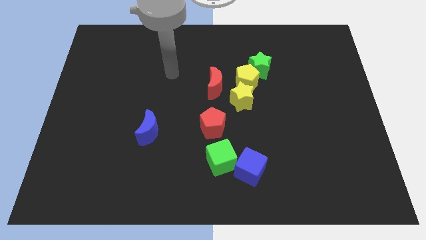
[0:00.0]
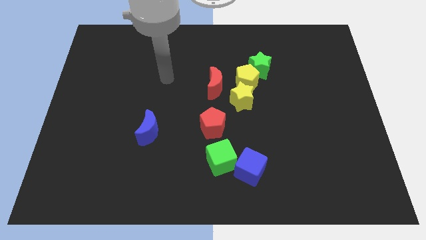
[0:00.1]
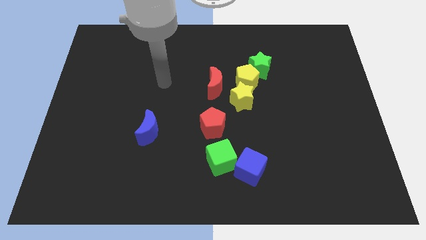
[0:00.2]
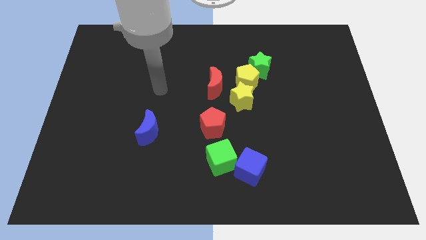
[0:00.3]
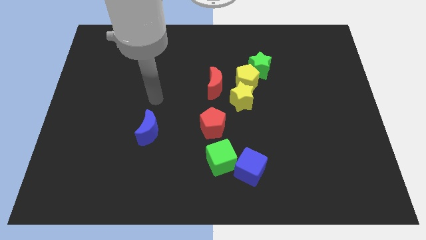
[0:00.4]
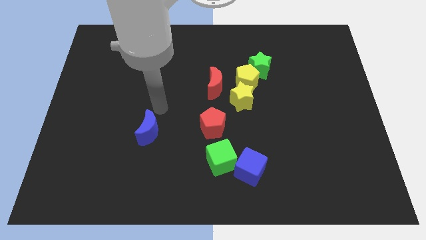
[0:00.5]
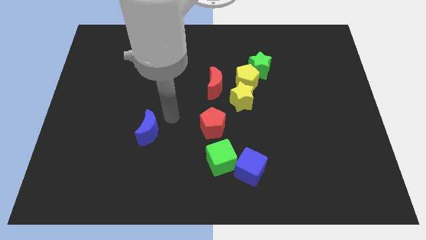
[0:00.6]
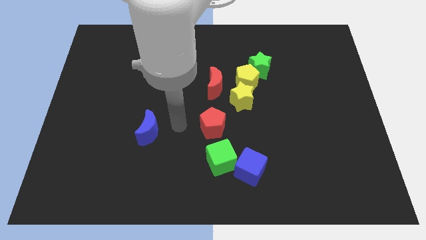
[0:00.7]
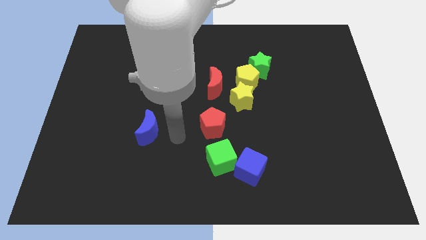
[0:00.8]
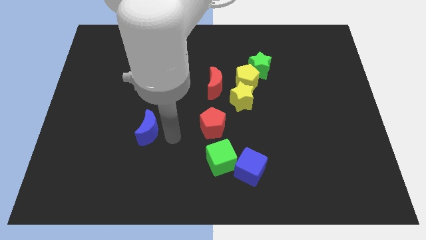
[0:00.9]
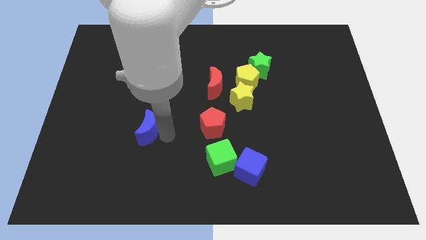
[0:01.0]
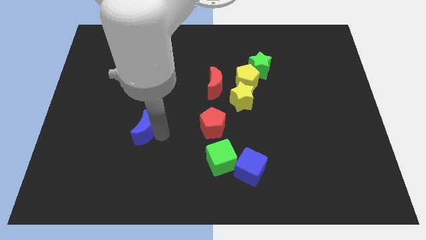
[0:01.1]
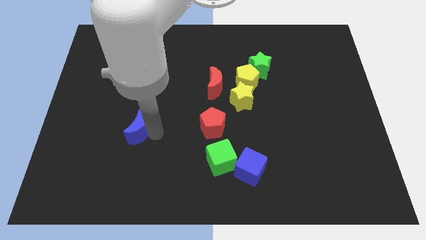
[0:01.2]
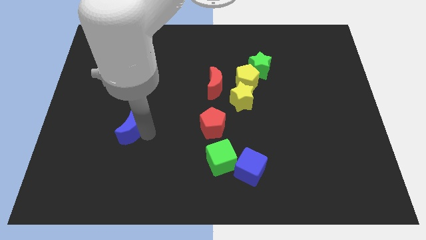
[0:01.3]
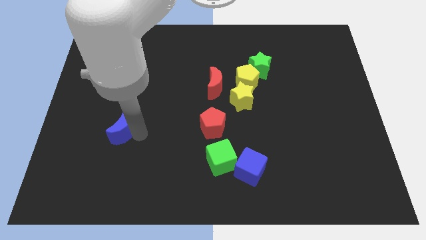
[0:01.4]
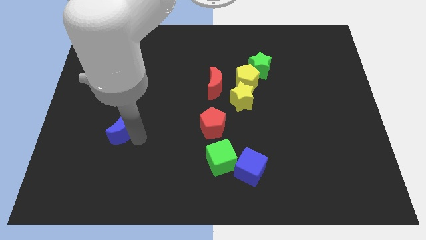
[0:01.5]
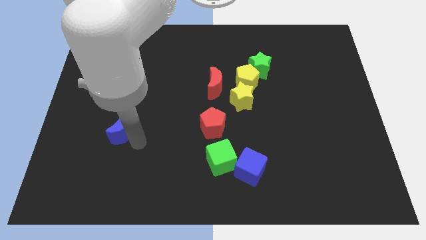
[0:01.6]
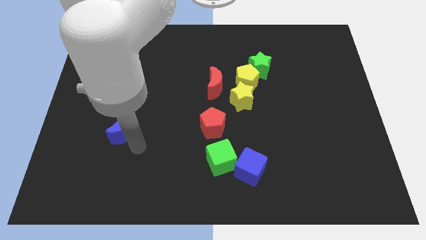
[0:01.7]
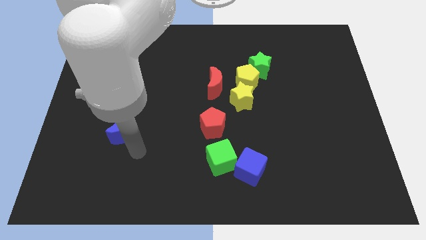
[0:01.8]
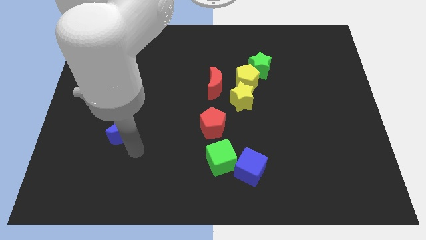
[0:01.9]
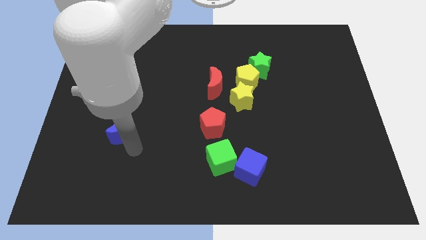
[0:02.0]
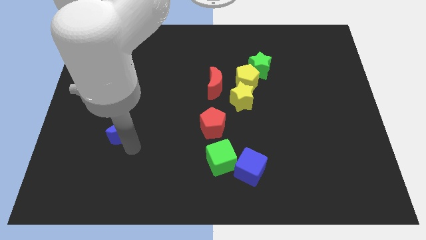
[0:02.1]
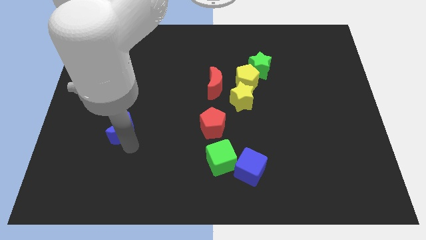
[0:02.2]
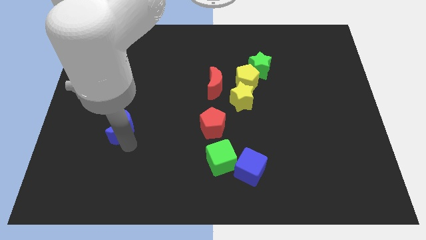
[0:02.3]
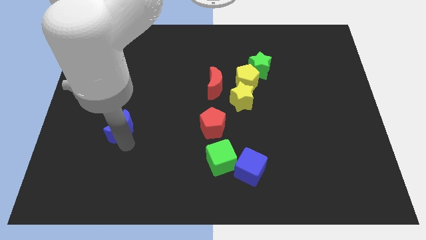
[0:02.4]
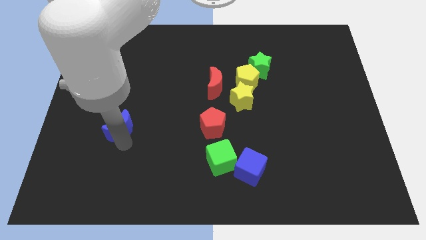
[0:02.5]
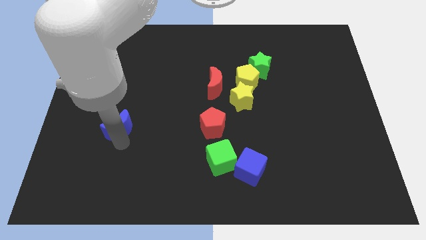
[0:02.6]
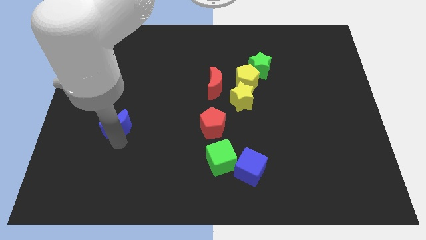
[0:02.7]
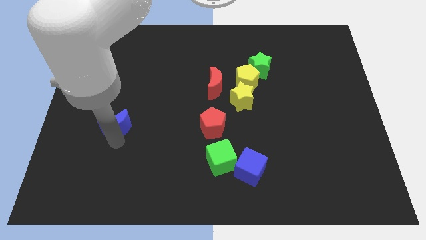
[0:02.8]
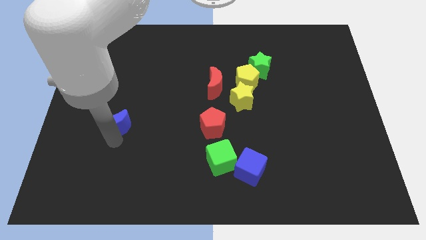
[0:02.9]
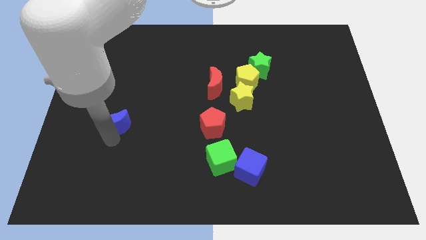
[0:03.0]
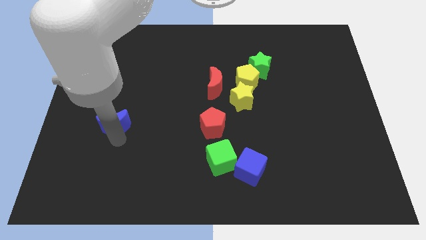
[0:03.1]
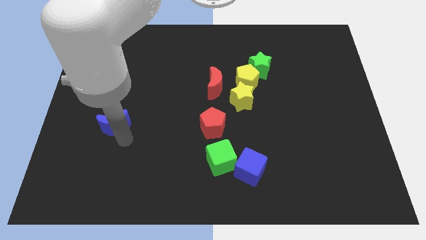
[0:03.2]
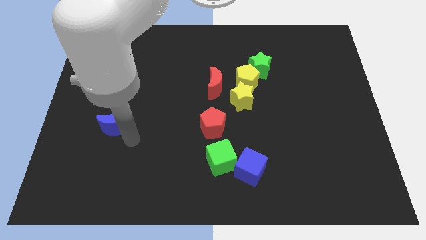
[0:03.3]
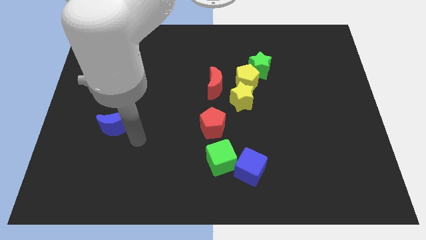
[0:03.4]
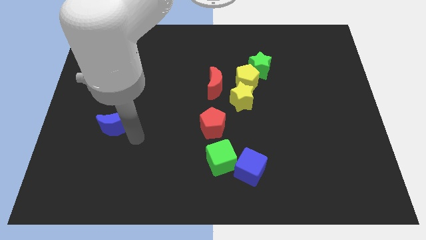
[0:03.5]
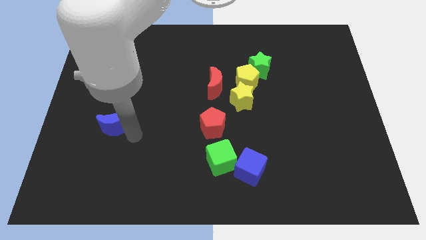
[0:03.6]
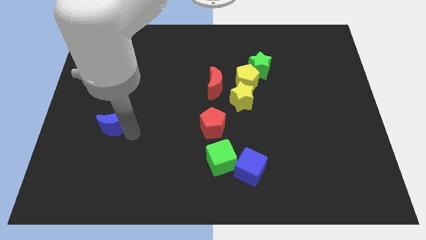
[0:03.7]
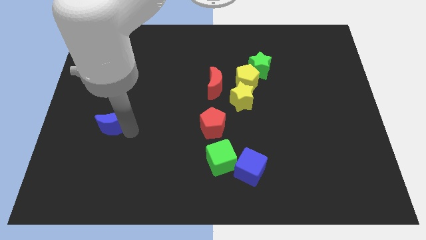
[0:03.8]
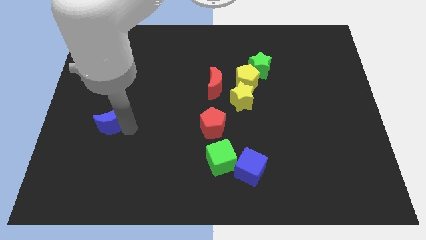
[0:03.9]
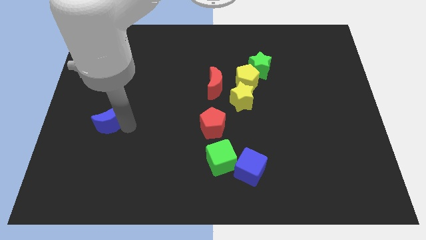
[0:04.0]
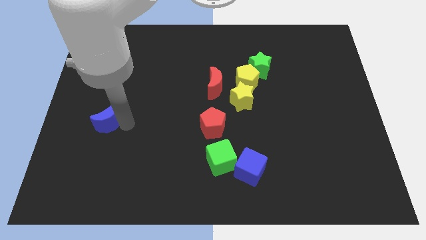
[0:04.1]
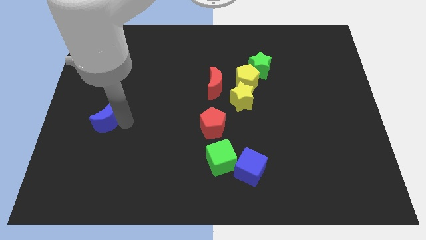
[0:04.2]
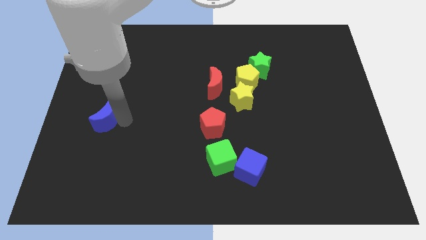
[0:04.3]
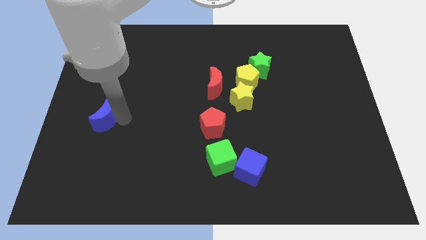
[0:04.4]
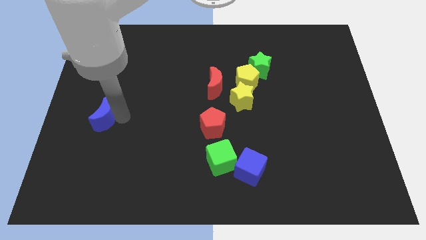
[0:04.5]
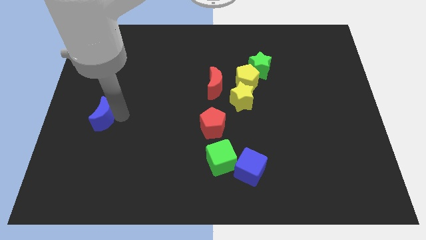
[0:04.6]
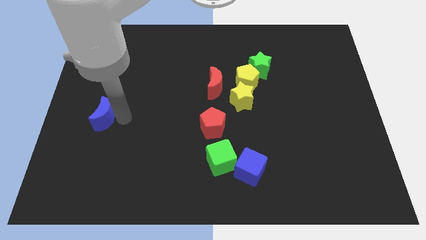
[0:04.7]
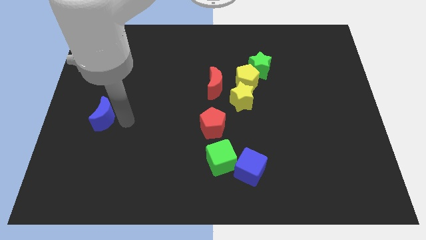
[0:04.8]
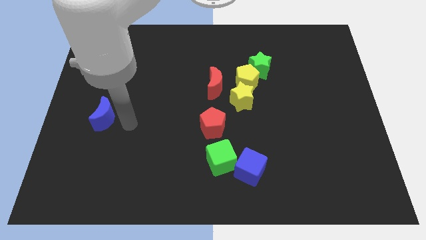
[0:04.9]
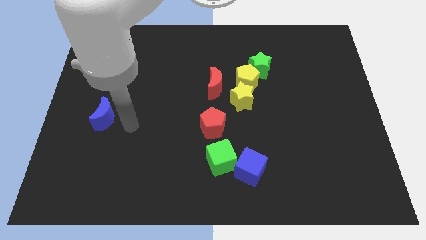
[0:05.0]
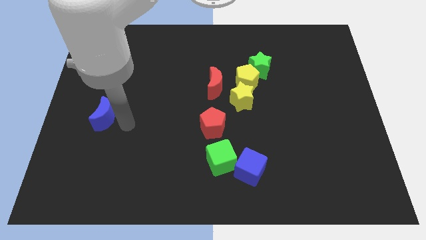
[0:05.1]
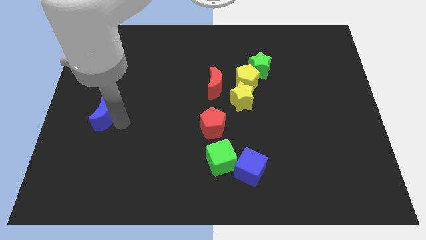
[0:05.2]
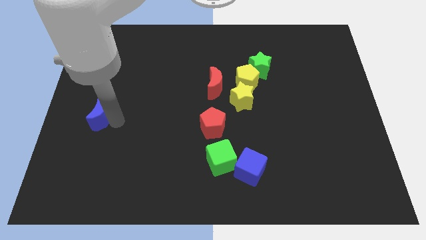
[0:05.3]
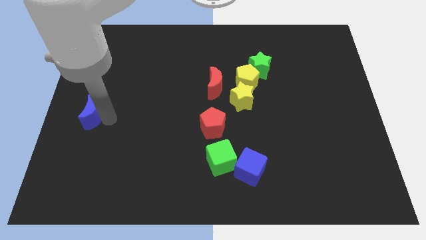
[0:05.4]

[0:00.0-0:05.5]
push the blue moon to the left side of the board

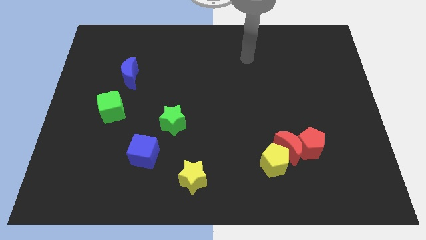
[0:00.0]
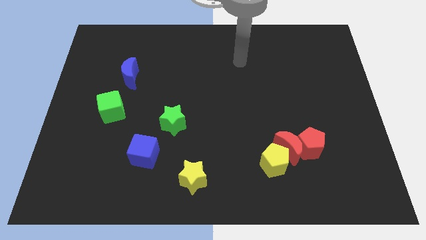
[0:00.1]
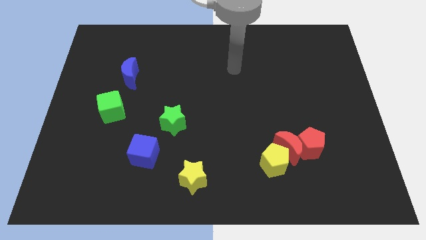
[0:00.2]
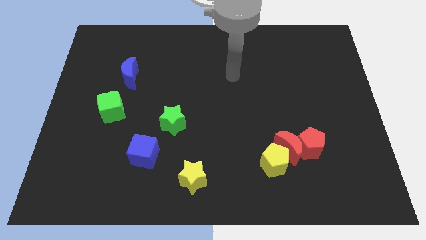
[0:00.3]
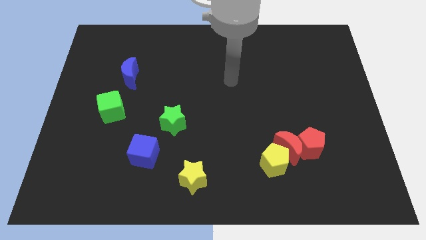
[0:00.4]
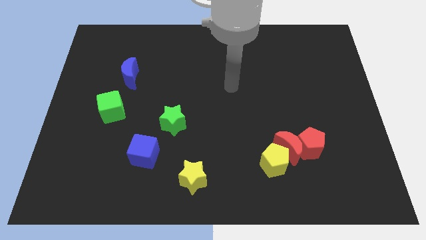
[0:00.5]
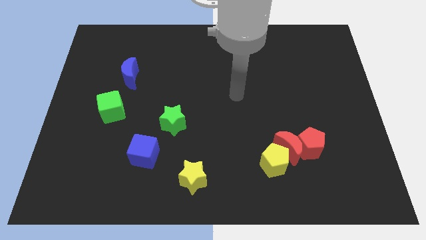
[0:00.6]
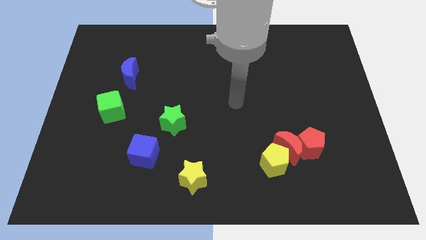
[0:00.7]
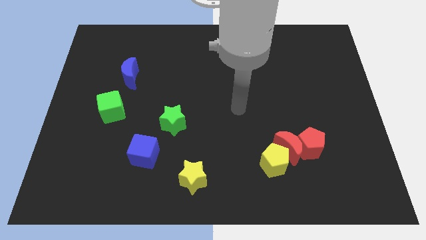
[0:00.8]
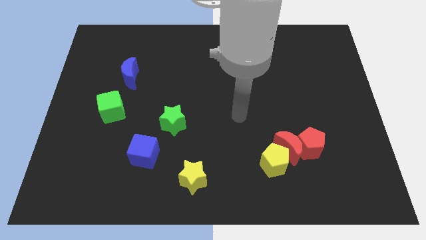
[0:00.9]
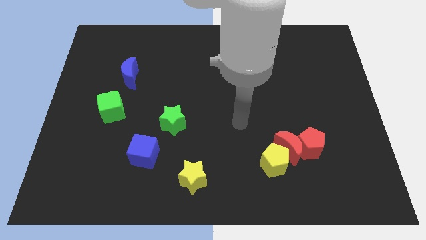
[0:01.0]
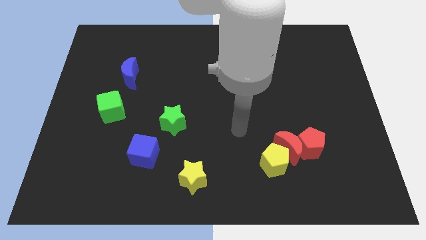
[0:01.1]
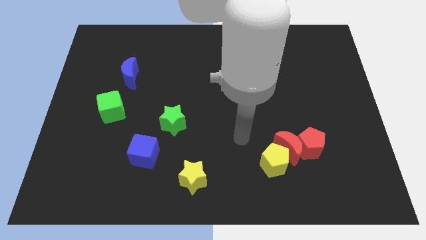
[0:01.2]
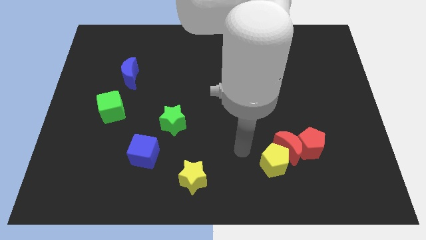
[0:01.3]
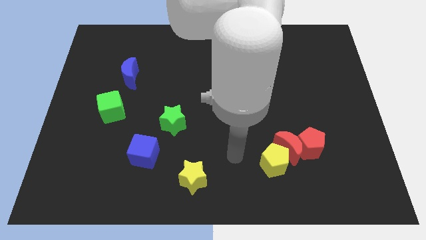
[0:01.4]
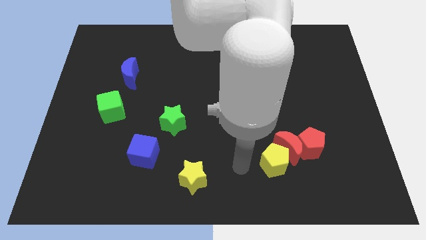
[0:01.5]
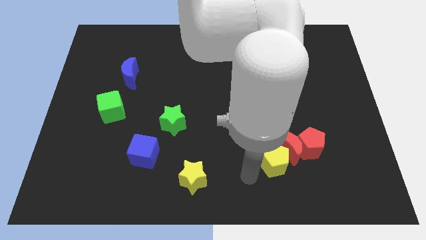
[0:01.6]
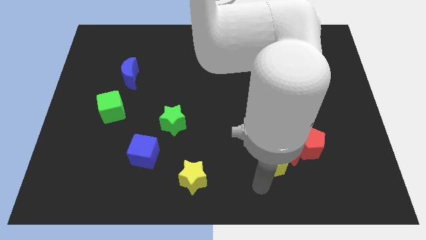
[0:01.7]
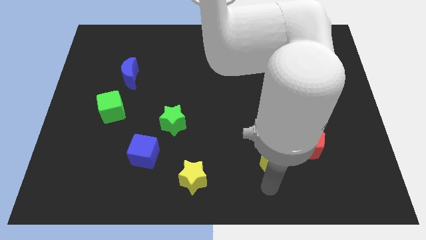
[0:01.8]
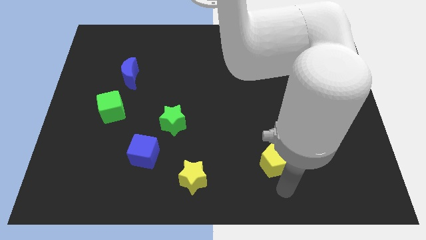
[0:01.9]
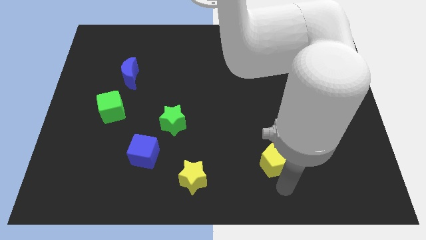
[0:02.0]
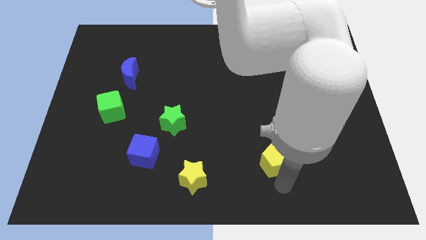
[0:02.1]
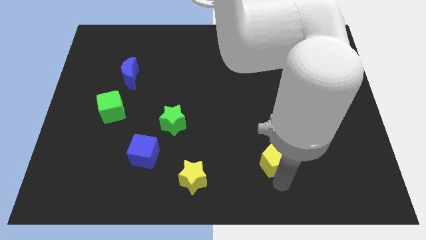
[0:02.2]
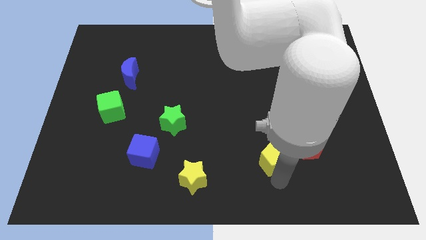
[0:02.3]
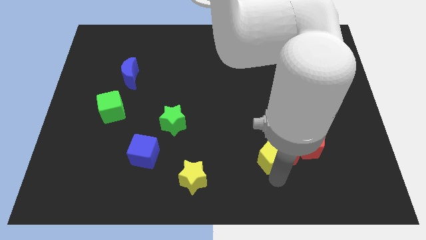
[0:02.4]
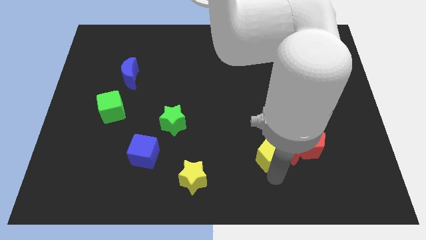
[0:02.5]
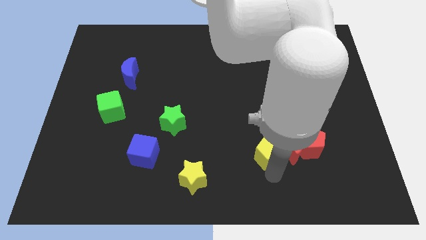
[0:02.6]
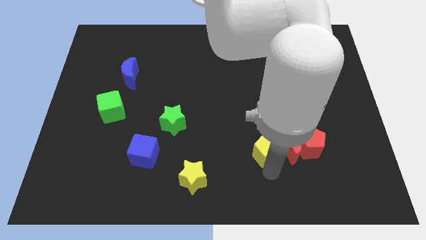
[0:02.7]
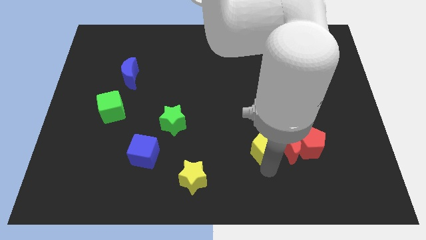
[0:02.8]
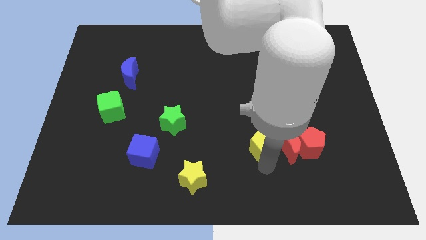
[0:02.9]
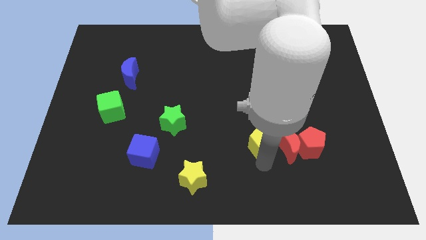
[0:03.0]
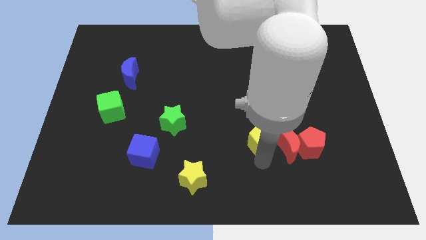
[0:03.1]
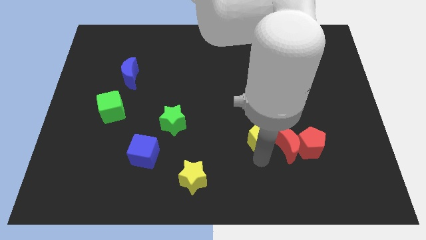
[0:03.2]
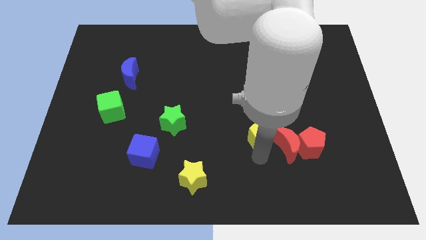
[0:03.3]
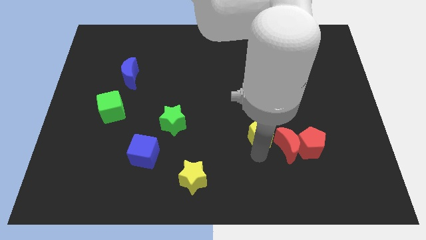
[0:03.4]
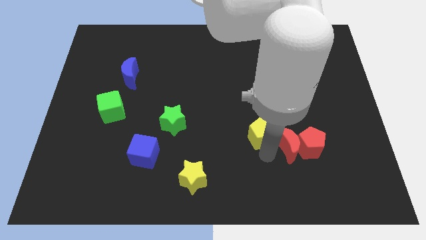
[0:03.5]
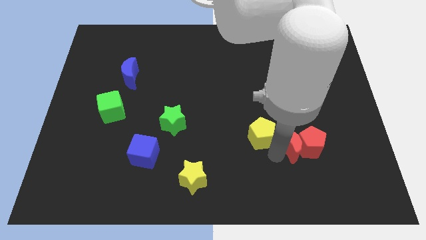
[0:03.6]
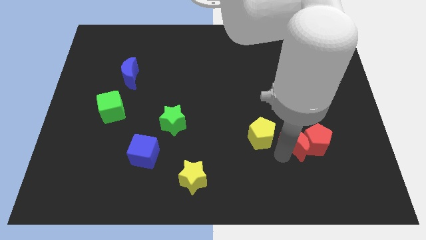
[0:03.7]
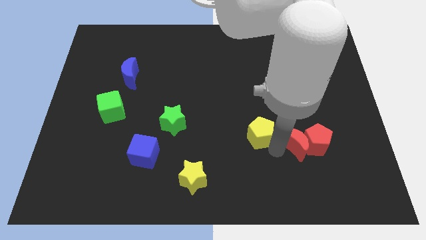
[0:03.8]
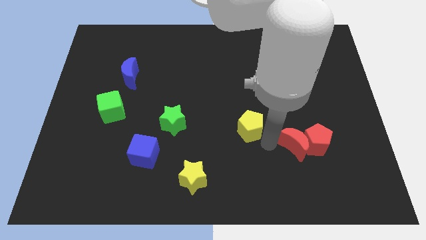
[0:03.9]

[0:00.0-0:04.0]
slide the yellow pentagon to the middle
